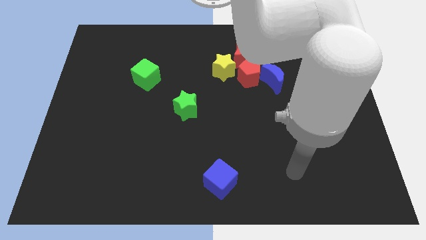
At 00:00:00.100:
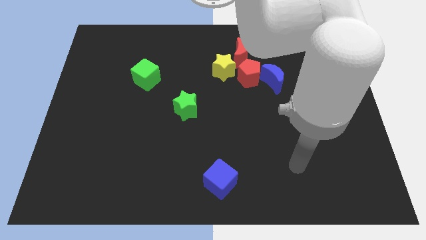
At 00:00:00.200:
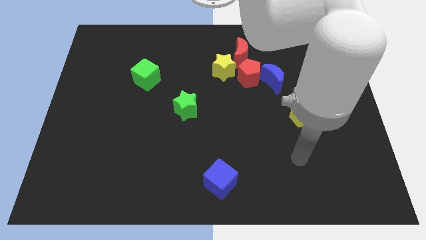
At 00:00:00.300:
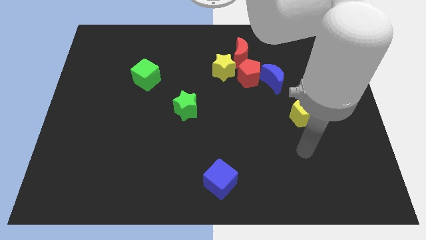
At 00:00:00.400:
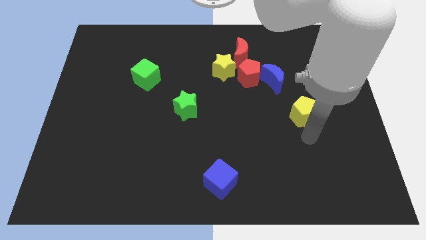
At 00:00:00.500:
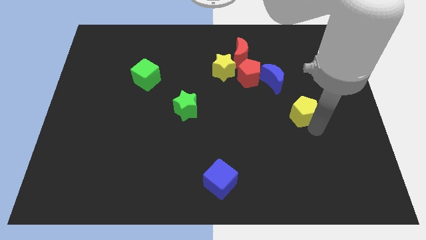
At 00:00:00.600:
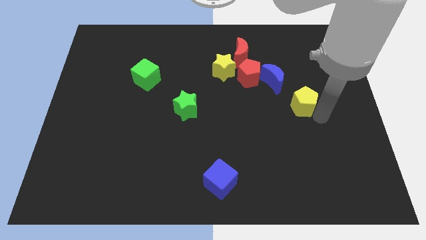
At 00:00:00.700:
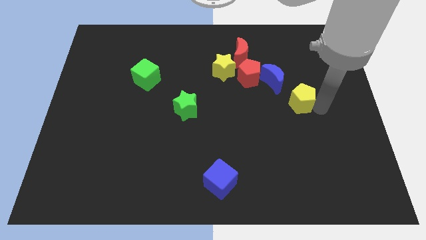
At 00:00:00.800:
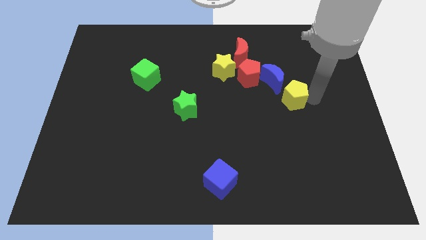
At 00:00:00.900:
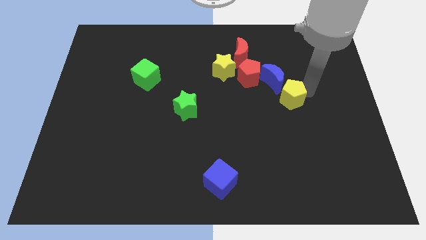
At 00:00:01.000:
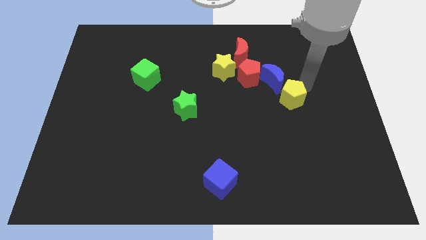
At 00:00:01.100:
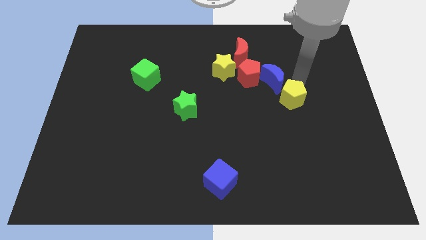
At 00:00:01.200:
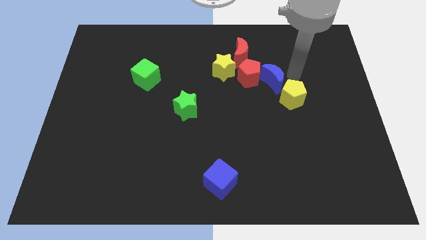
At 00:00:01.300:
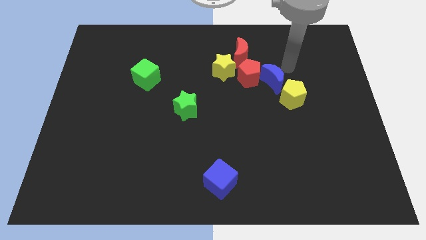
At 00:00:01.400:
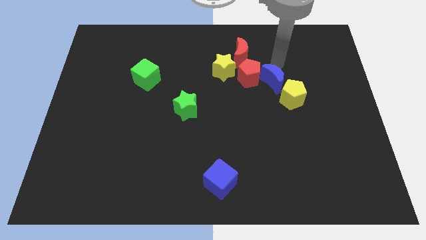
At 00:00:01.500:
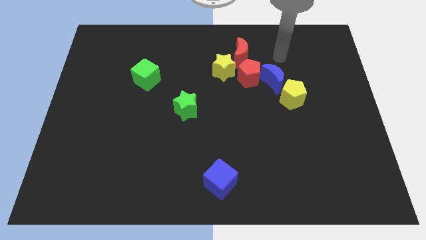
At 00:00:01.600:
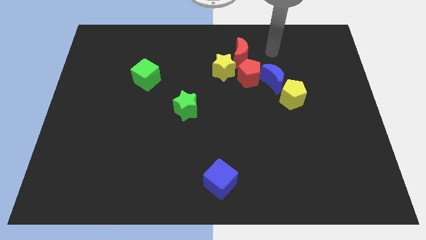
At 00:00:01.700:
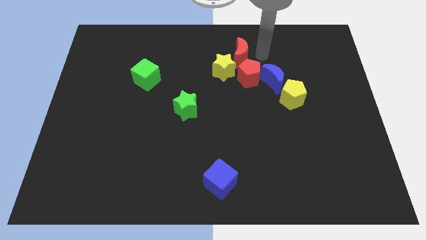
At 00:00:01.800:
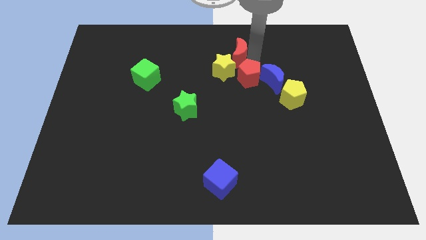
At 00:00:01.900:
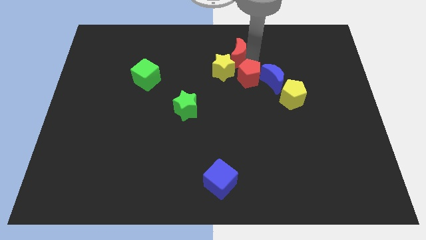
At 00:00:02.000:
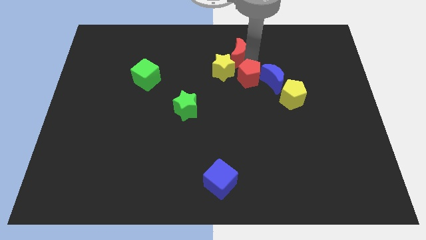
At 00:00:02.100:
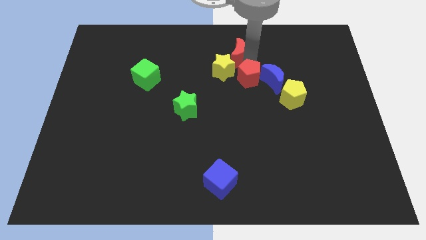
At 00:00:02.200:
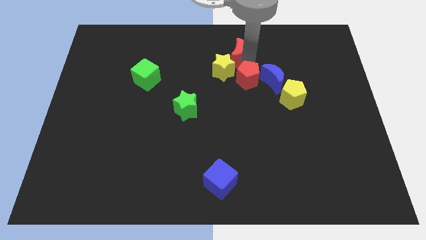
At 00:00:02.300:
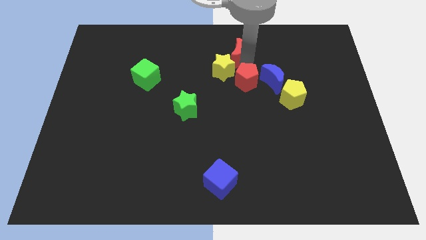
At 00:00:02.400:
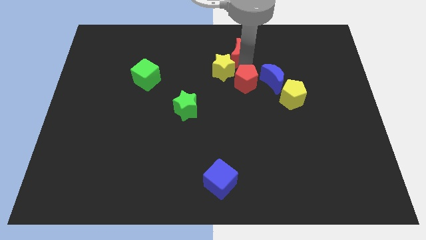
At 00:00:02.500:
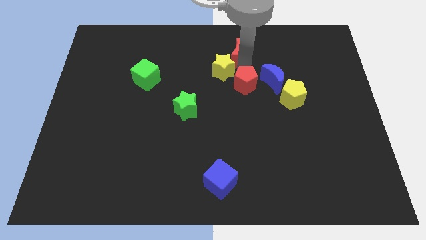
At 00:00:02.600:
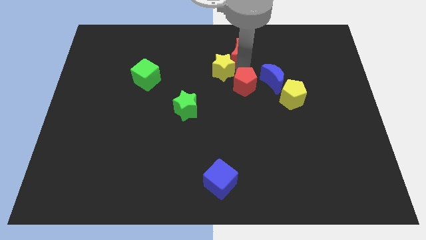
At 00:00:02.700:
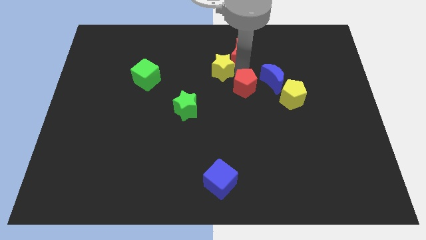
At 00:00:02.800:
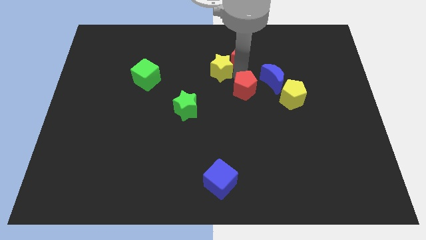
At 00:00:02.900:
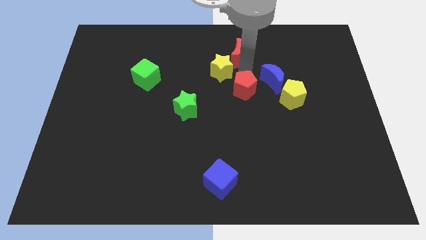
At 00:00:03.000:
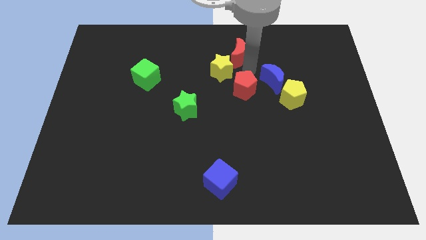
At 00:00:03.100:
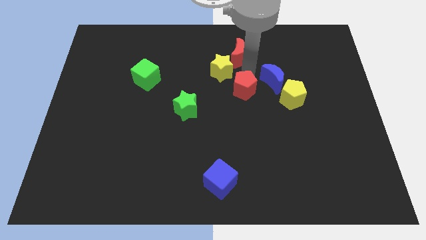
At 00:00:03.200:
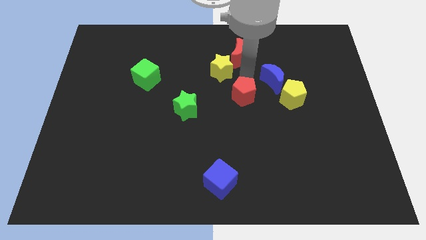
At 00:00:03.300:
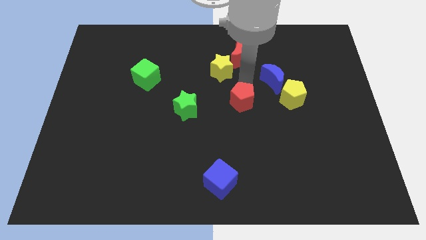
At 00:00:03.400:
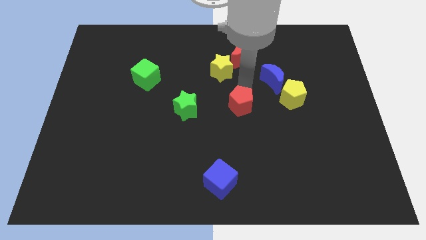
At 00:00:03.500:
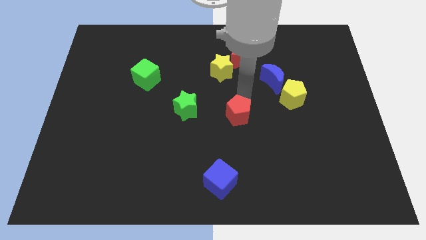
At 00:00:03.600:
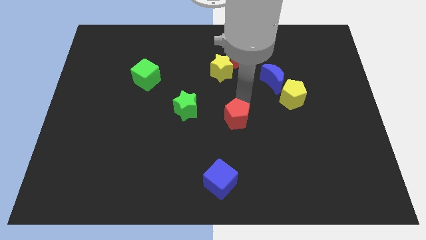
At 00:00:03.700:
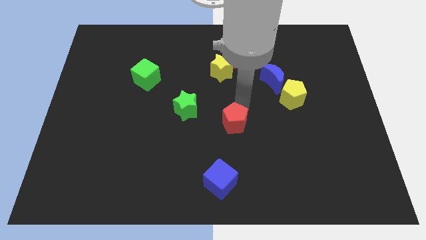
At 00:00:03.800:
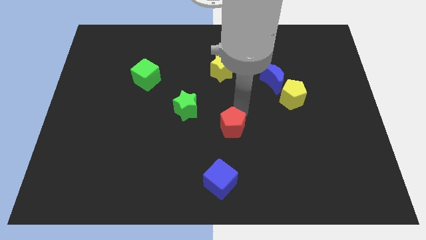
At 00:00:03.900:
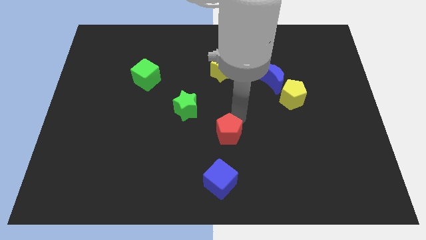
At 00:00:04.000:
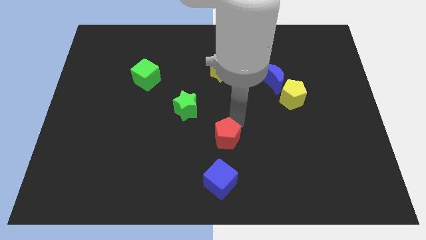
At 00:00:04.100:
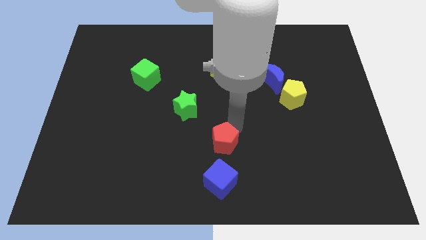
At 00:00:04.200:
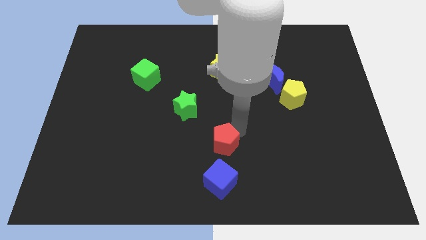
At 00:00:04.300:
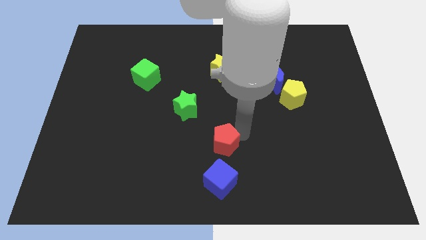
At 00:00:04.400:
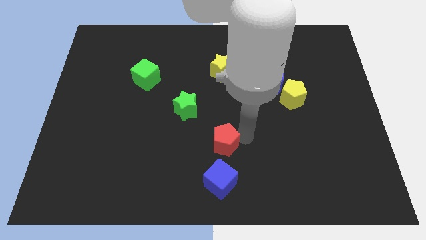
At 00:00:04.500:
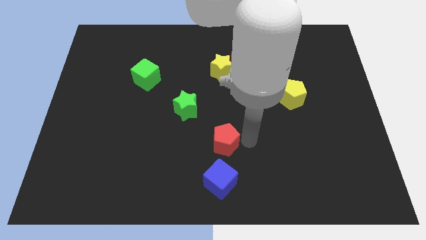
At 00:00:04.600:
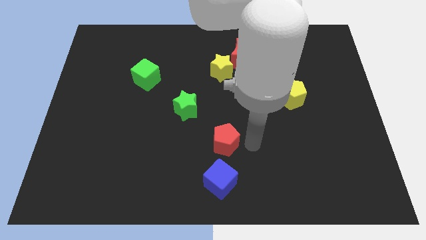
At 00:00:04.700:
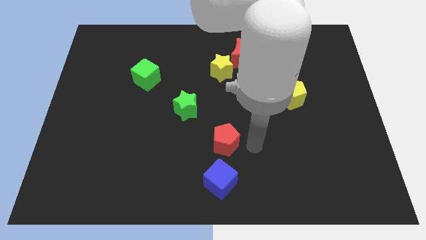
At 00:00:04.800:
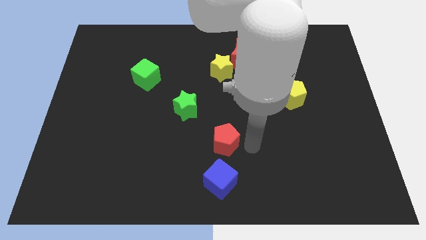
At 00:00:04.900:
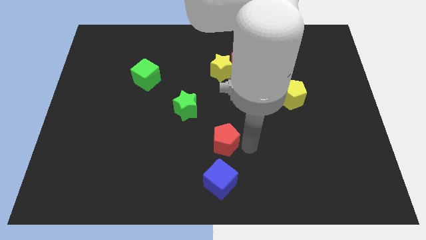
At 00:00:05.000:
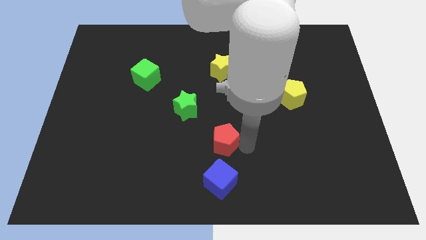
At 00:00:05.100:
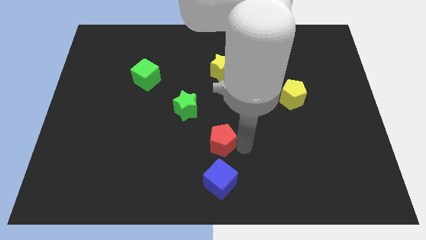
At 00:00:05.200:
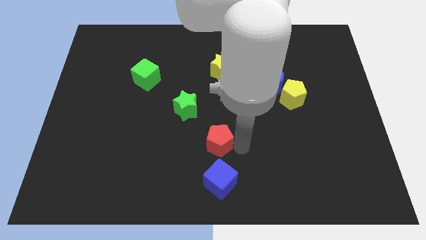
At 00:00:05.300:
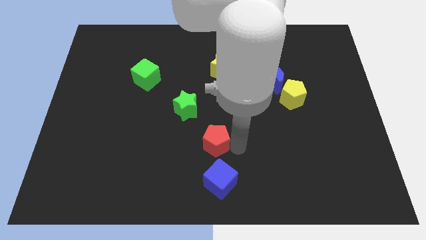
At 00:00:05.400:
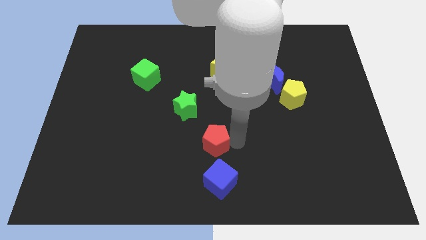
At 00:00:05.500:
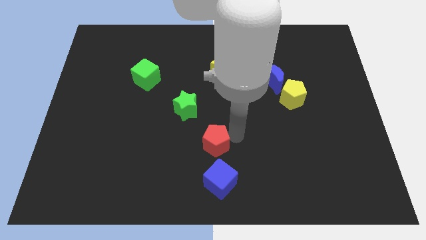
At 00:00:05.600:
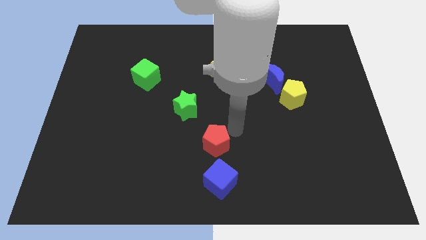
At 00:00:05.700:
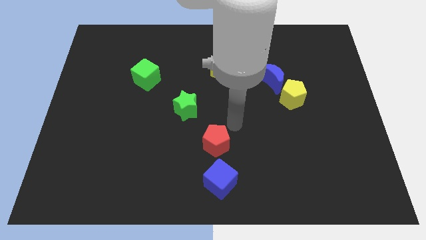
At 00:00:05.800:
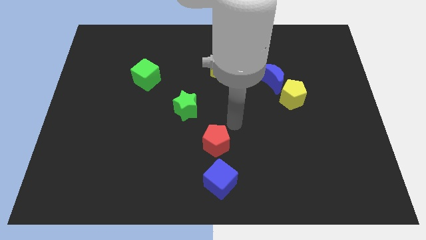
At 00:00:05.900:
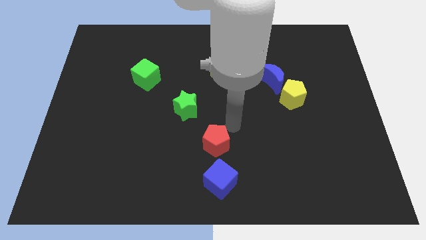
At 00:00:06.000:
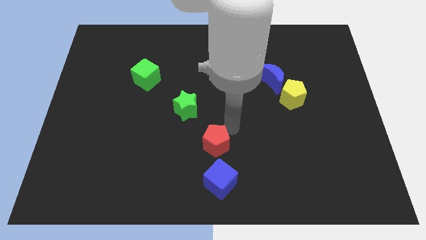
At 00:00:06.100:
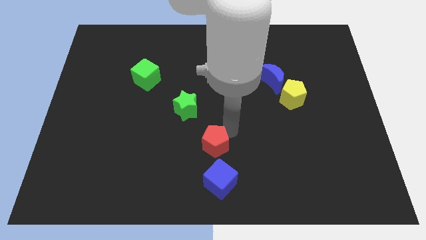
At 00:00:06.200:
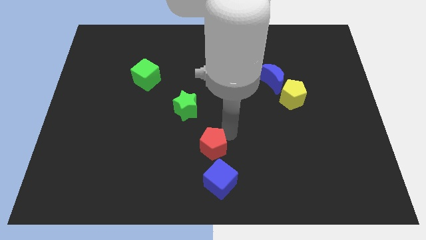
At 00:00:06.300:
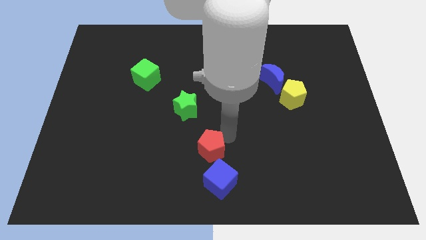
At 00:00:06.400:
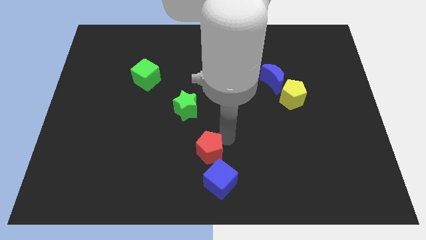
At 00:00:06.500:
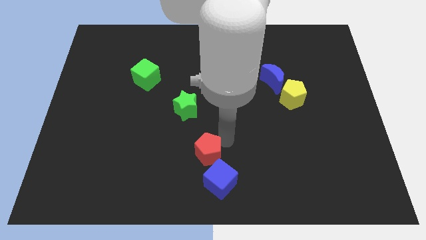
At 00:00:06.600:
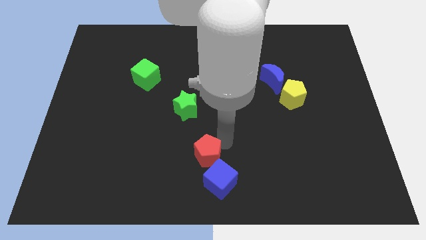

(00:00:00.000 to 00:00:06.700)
move the red pentagon to the bottom
